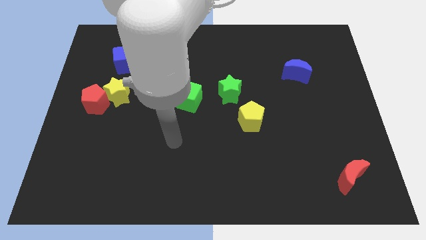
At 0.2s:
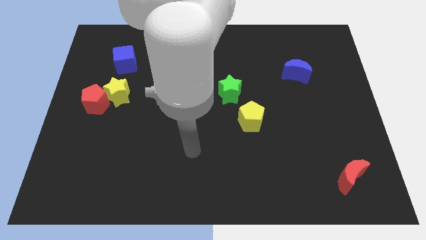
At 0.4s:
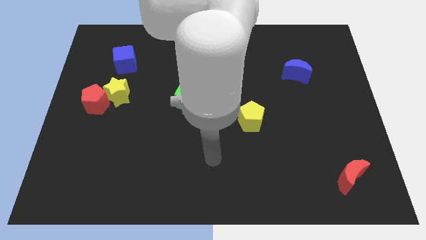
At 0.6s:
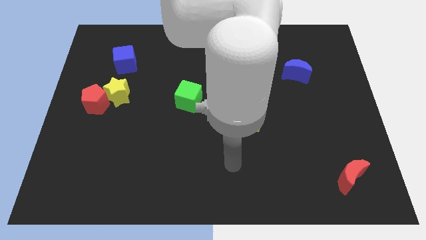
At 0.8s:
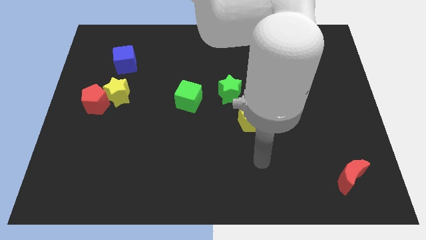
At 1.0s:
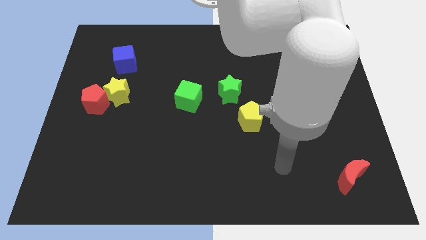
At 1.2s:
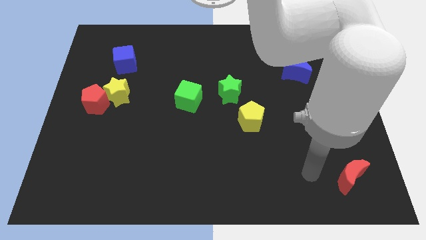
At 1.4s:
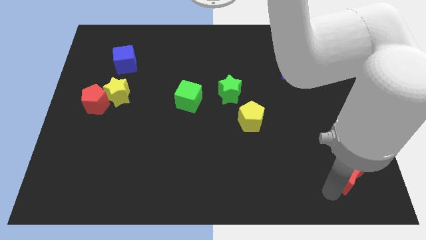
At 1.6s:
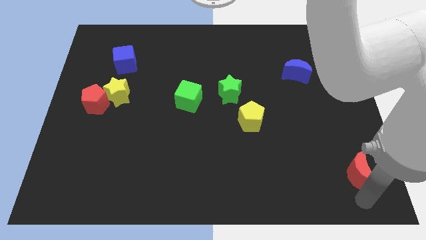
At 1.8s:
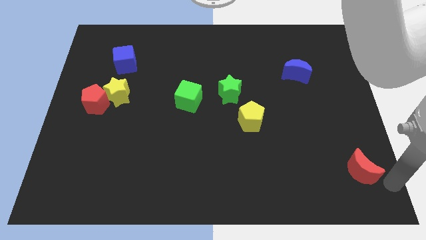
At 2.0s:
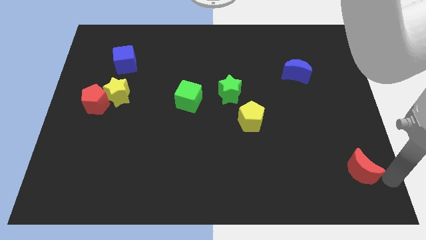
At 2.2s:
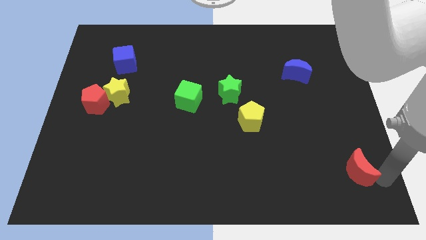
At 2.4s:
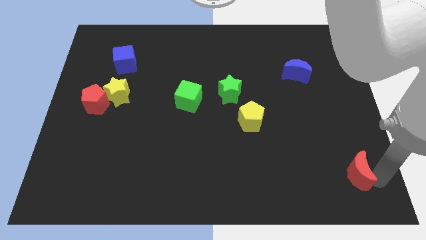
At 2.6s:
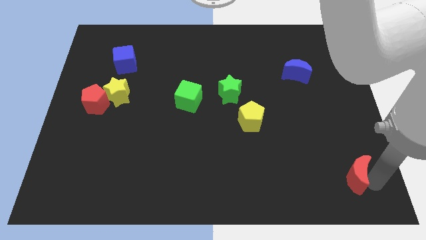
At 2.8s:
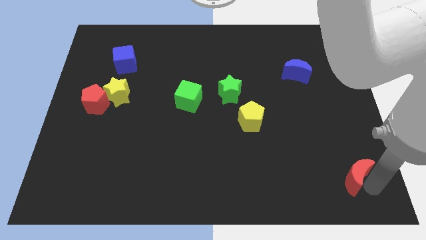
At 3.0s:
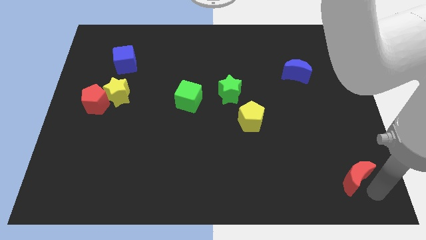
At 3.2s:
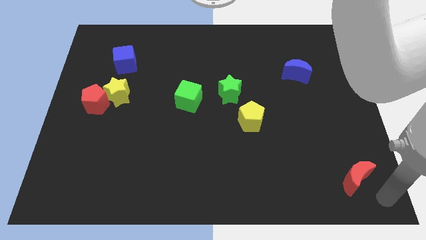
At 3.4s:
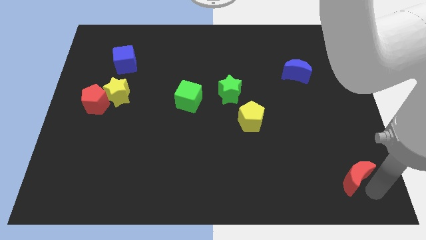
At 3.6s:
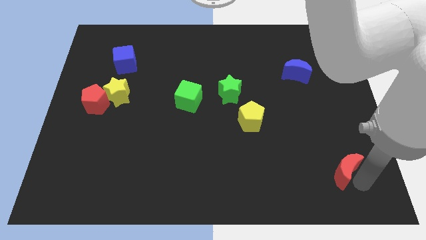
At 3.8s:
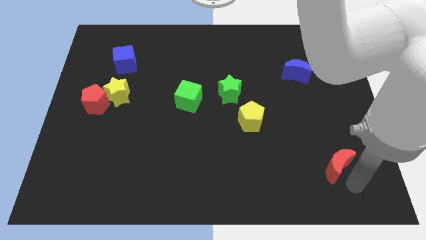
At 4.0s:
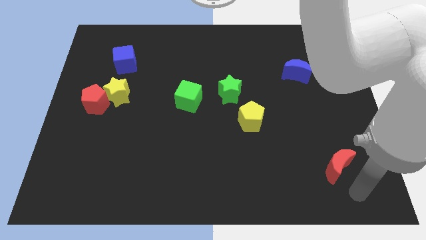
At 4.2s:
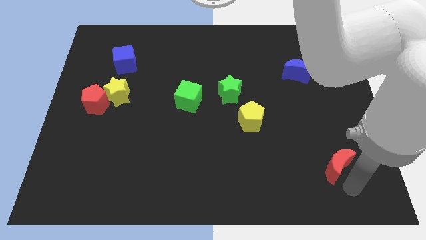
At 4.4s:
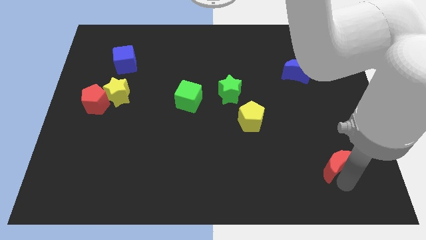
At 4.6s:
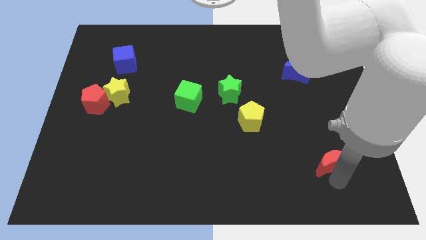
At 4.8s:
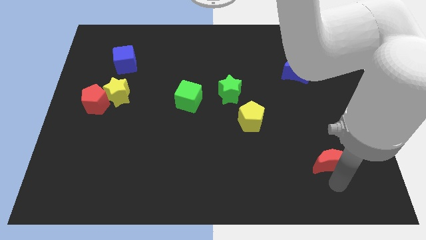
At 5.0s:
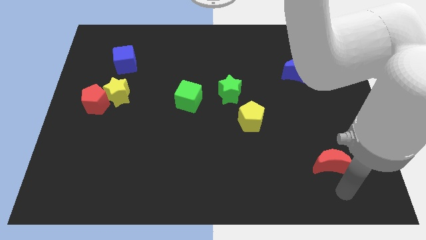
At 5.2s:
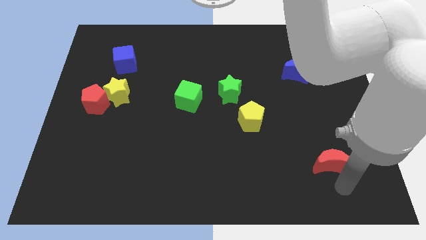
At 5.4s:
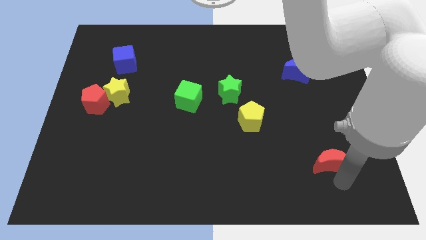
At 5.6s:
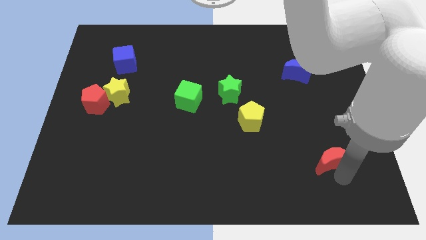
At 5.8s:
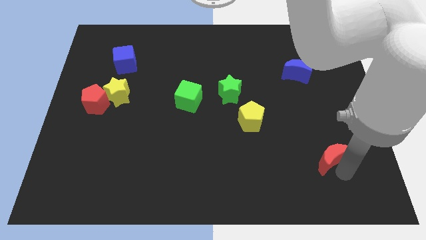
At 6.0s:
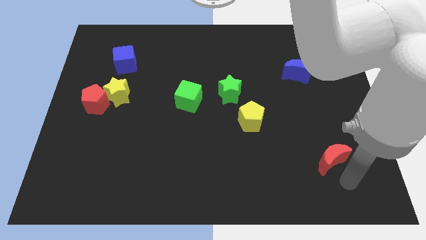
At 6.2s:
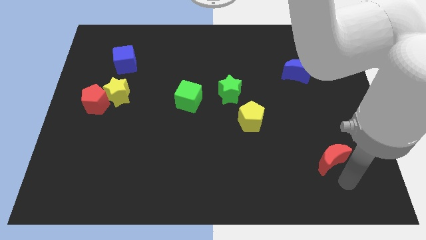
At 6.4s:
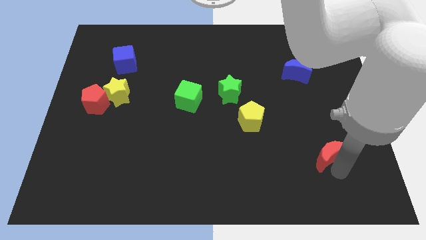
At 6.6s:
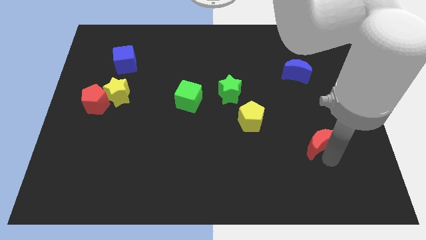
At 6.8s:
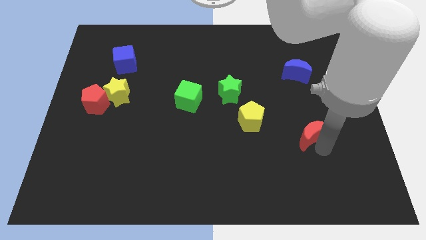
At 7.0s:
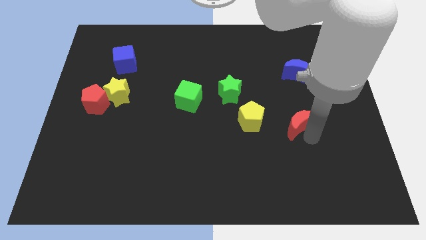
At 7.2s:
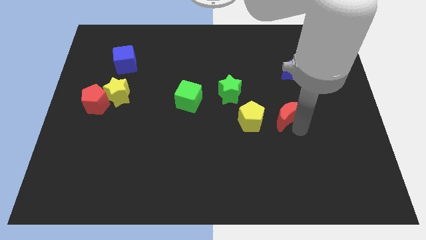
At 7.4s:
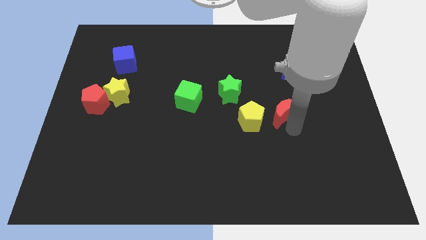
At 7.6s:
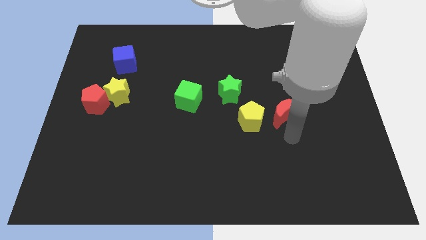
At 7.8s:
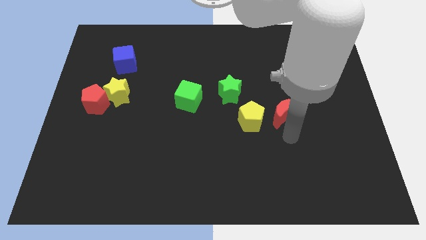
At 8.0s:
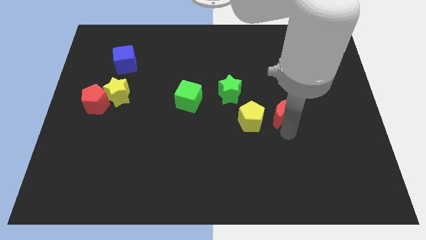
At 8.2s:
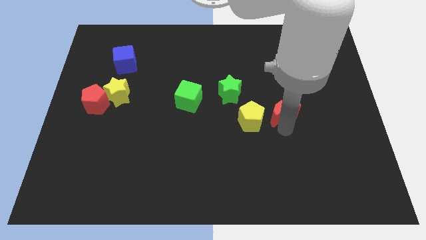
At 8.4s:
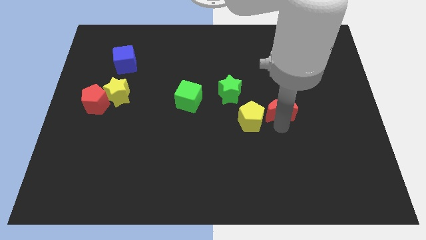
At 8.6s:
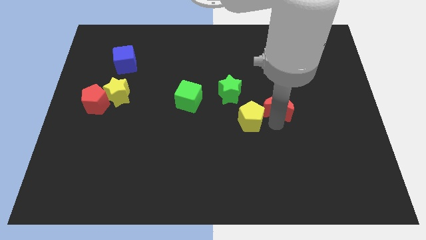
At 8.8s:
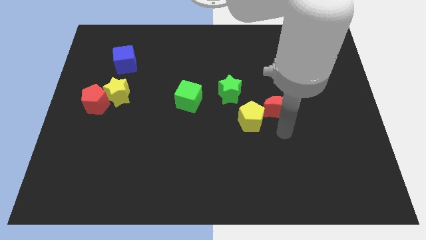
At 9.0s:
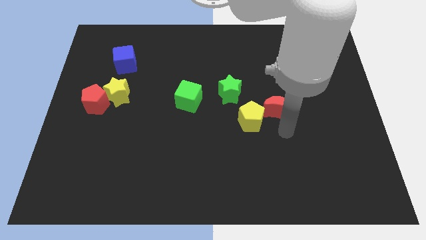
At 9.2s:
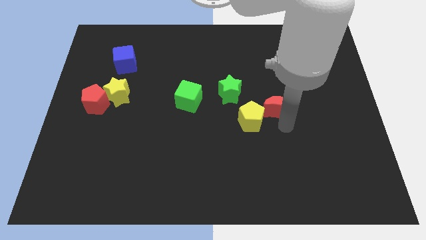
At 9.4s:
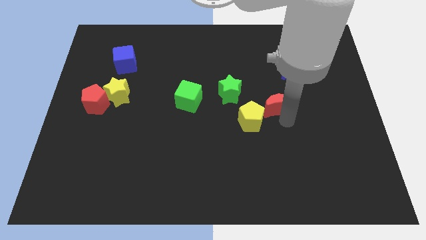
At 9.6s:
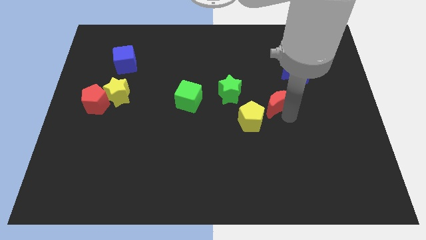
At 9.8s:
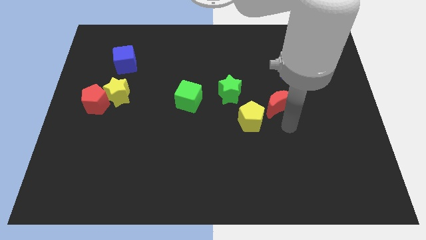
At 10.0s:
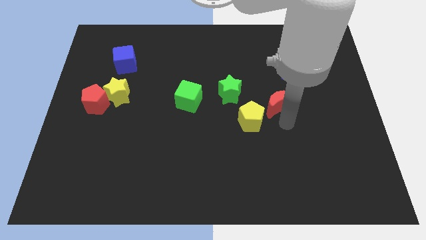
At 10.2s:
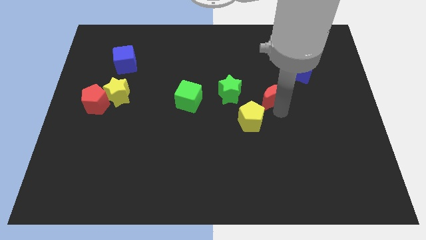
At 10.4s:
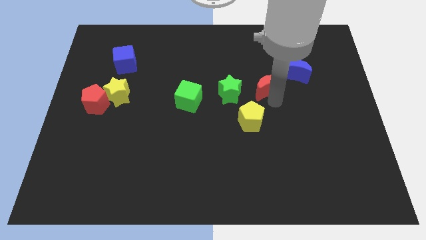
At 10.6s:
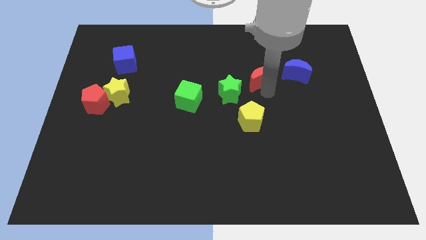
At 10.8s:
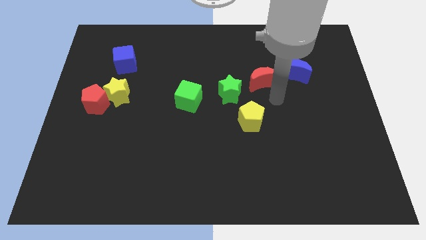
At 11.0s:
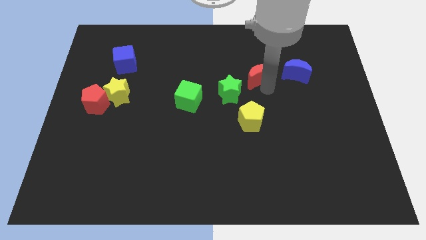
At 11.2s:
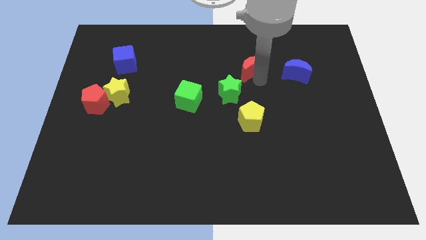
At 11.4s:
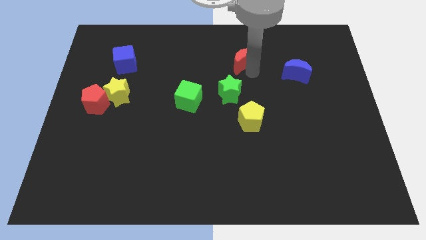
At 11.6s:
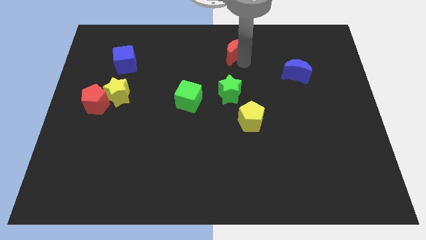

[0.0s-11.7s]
put the red moon to the towards your base

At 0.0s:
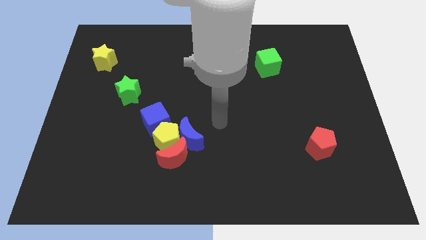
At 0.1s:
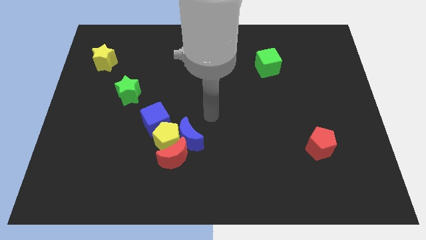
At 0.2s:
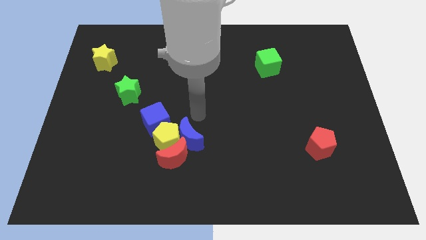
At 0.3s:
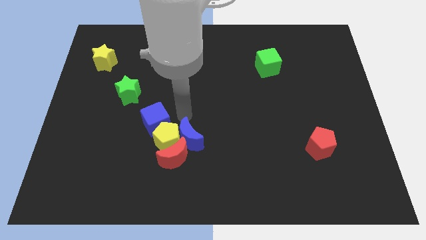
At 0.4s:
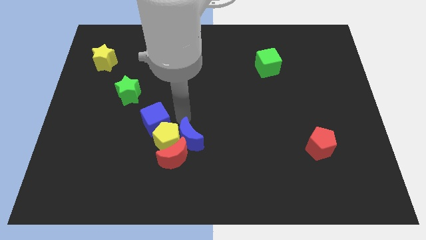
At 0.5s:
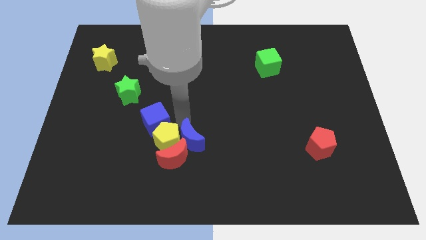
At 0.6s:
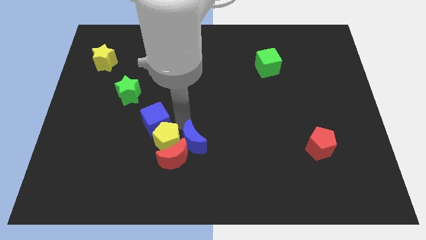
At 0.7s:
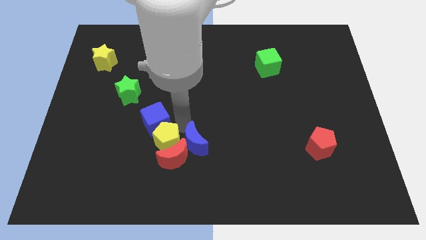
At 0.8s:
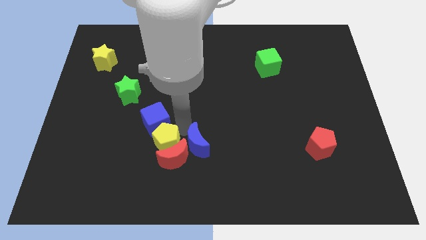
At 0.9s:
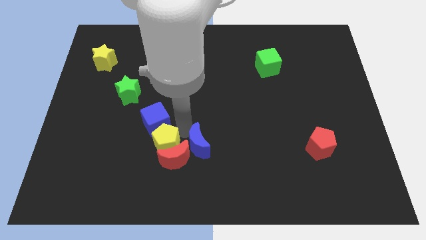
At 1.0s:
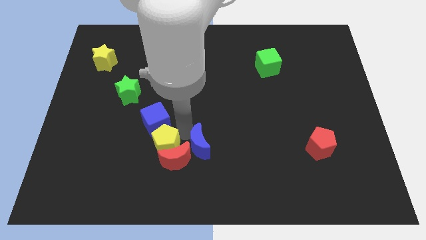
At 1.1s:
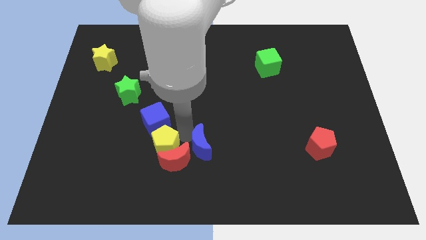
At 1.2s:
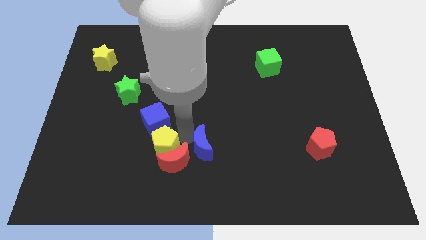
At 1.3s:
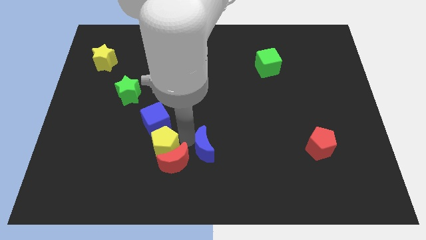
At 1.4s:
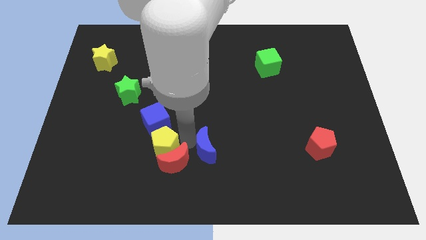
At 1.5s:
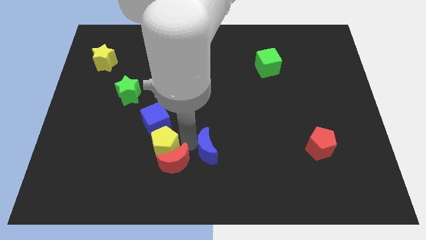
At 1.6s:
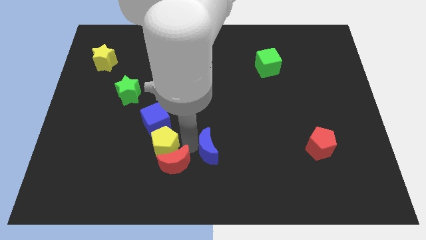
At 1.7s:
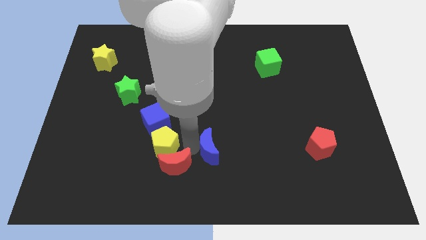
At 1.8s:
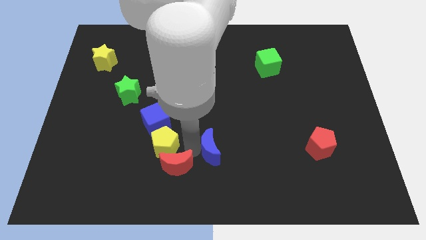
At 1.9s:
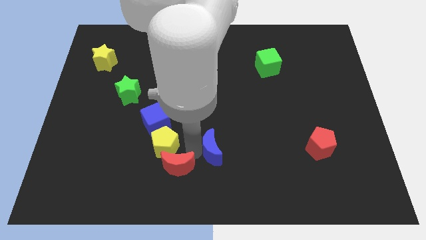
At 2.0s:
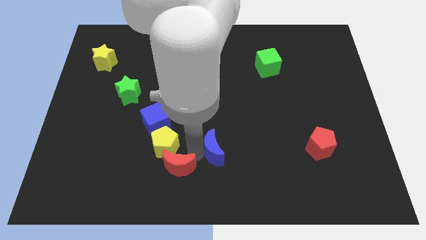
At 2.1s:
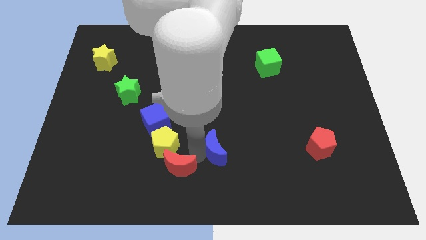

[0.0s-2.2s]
push the blue moon to the bottom side
